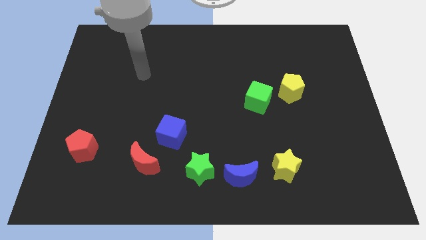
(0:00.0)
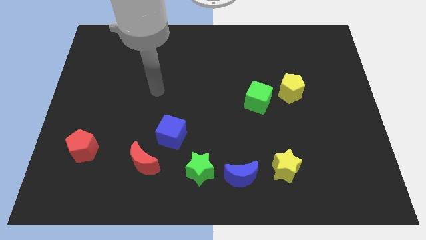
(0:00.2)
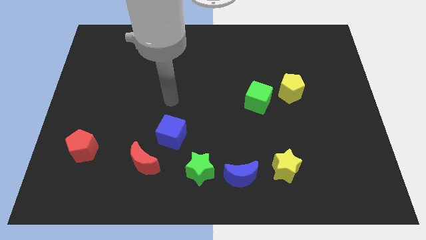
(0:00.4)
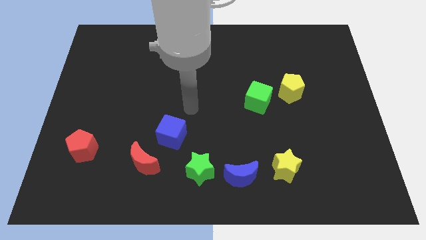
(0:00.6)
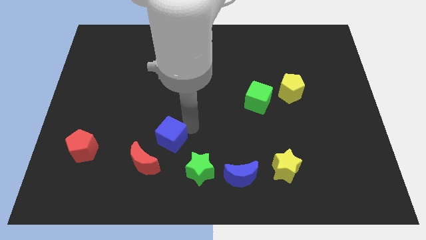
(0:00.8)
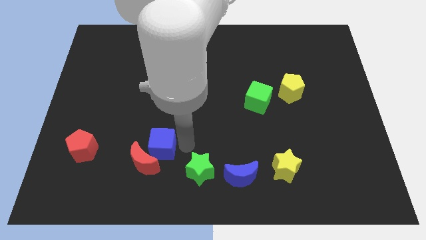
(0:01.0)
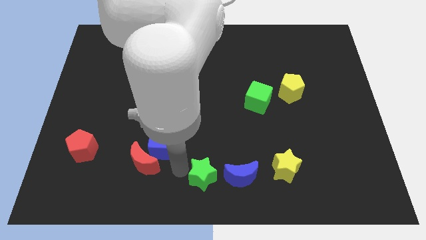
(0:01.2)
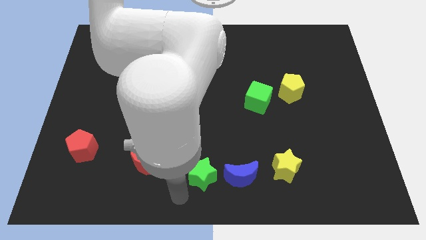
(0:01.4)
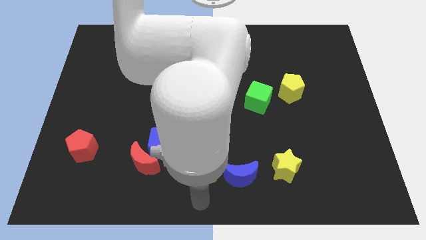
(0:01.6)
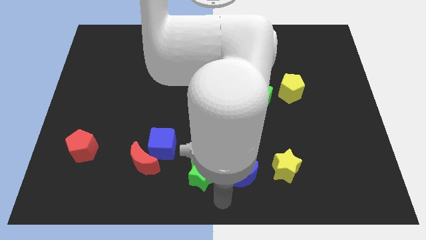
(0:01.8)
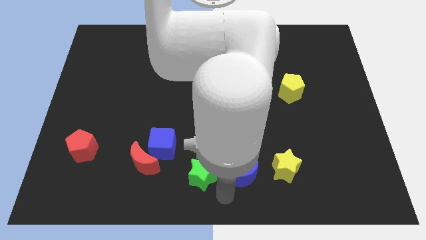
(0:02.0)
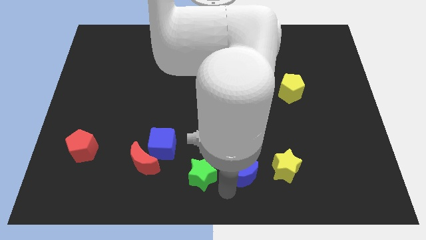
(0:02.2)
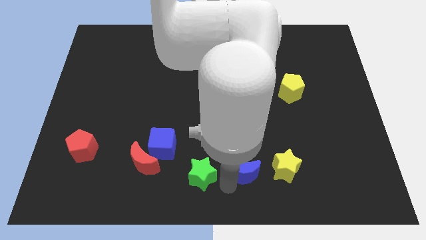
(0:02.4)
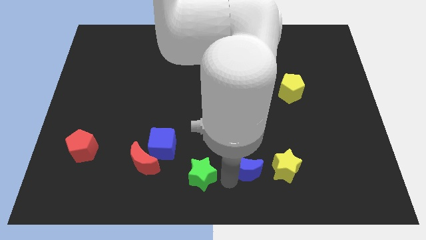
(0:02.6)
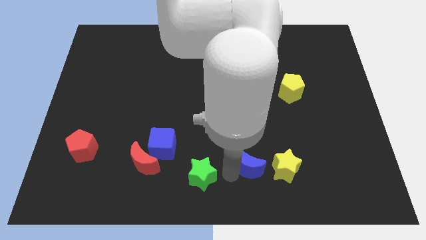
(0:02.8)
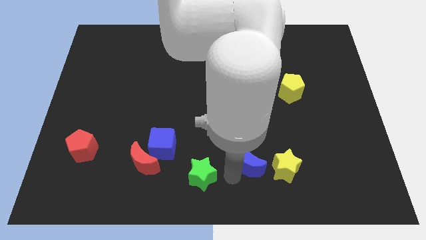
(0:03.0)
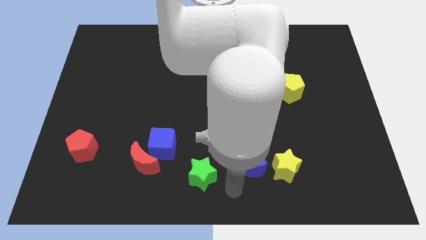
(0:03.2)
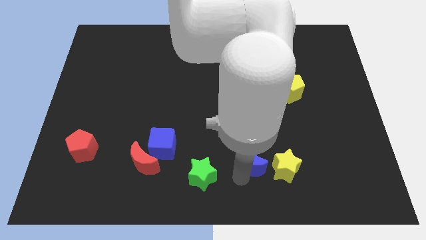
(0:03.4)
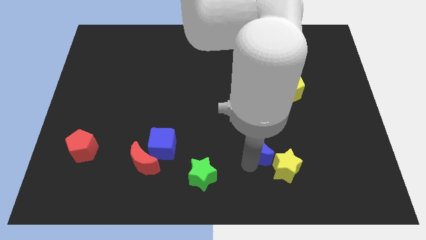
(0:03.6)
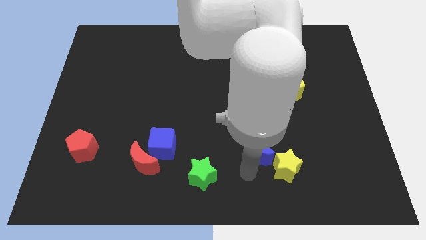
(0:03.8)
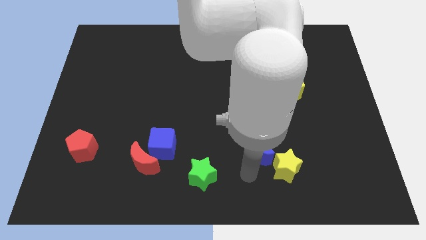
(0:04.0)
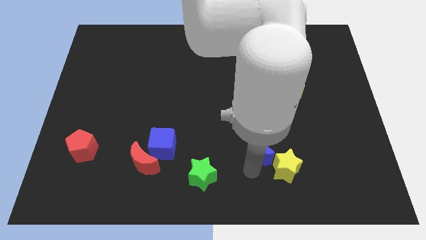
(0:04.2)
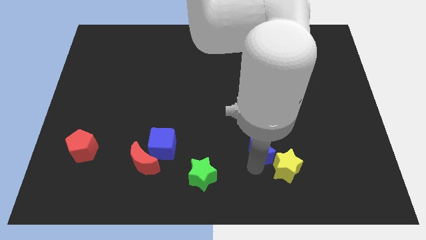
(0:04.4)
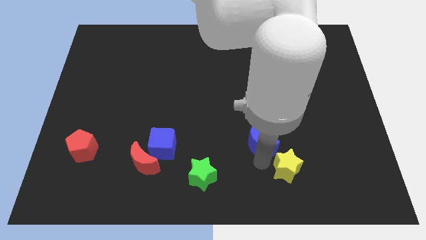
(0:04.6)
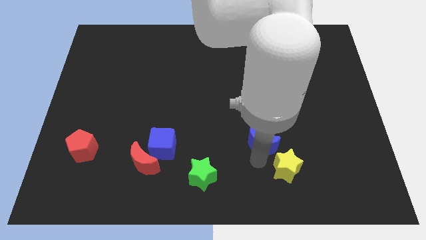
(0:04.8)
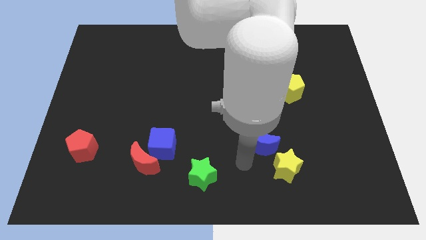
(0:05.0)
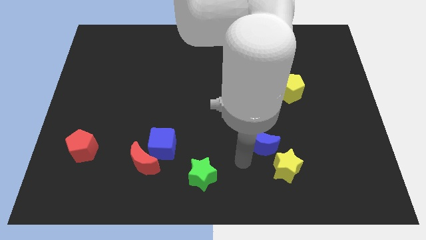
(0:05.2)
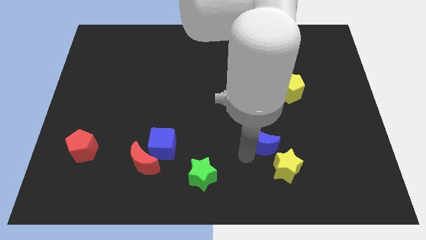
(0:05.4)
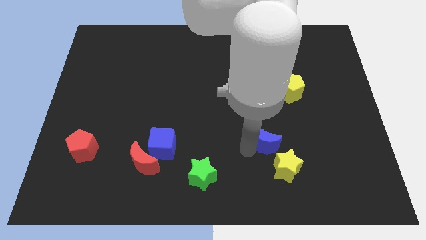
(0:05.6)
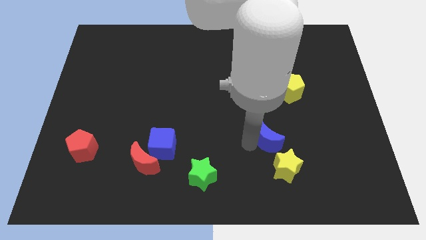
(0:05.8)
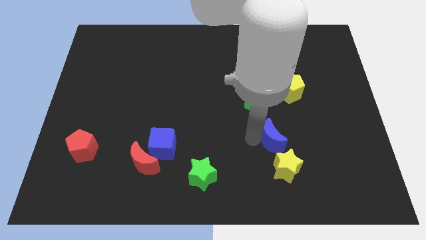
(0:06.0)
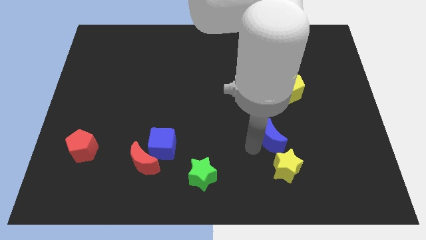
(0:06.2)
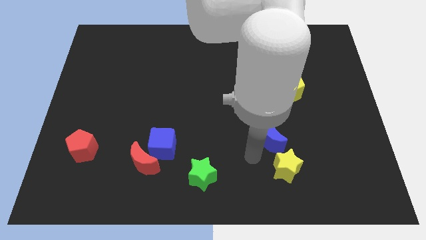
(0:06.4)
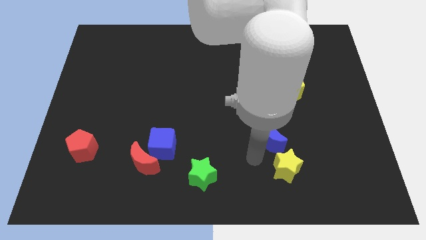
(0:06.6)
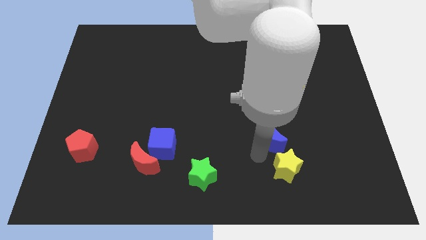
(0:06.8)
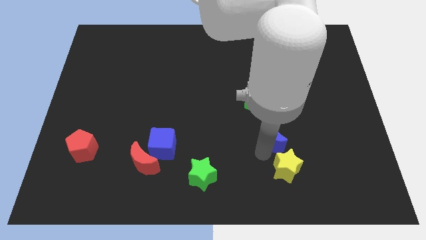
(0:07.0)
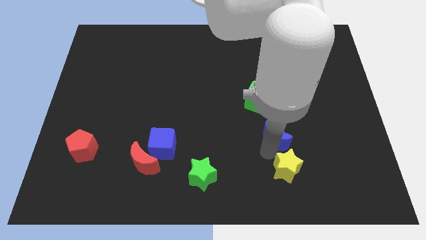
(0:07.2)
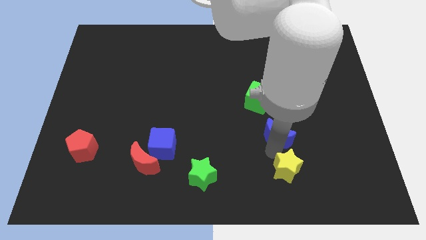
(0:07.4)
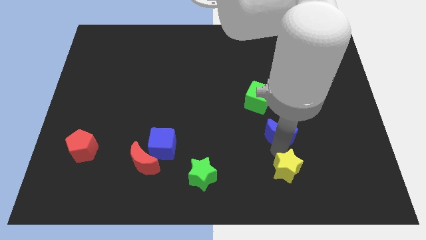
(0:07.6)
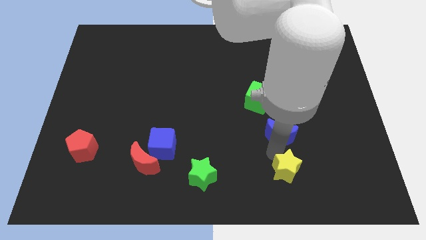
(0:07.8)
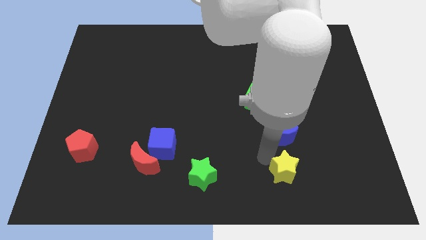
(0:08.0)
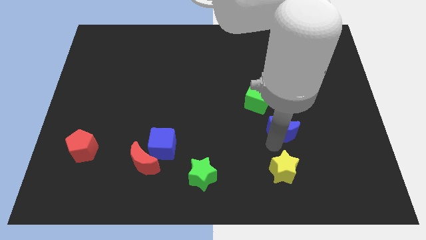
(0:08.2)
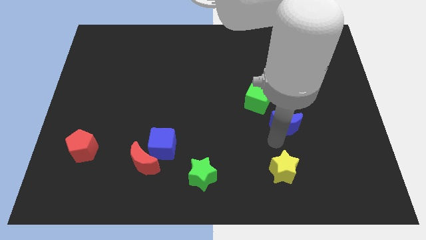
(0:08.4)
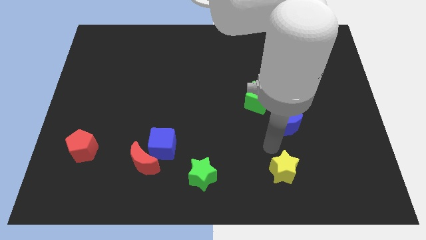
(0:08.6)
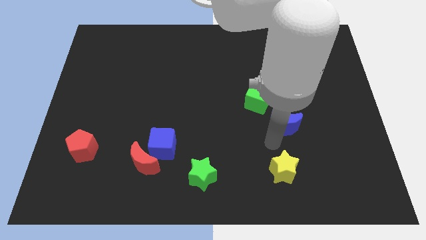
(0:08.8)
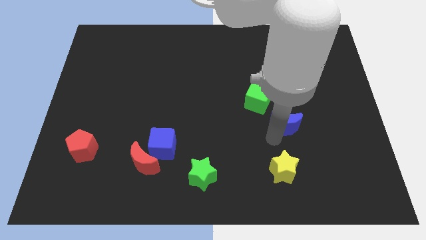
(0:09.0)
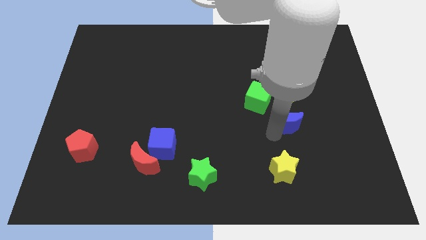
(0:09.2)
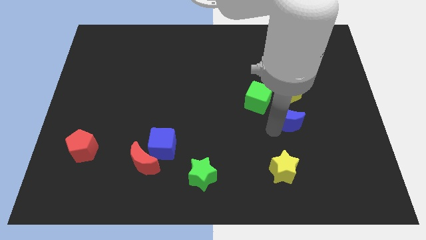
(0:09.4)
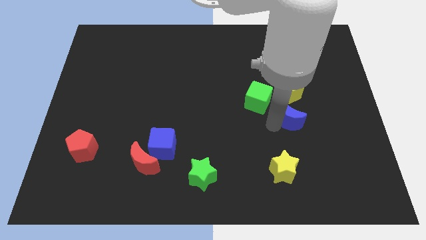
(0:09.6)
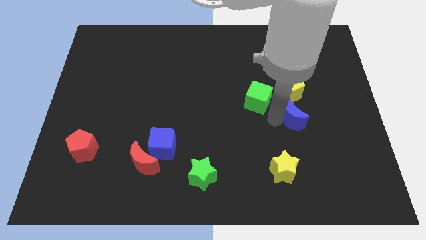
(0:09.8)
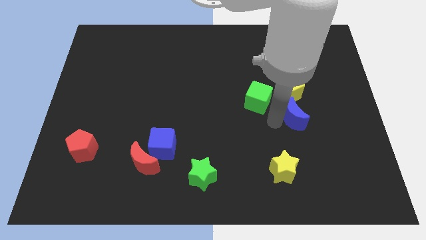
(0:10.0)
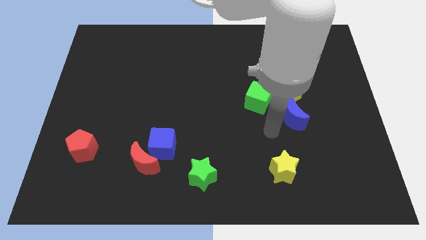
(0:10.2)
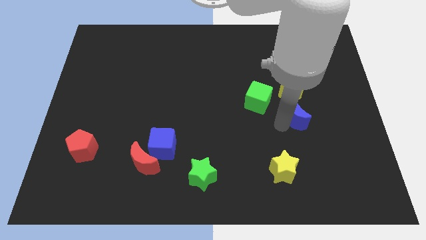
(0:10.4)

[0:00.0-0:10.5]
push the blue moon diagonally upwards and to the right

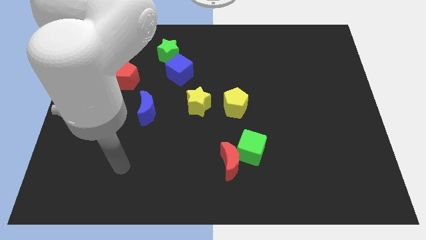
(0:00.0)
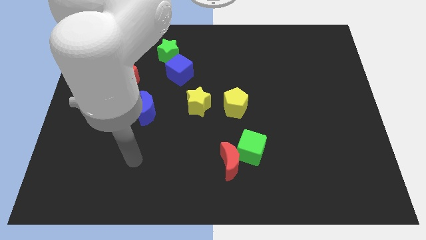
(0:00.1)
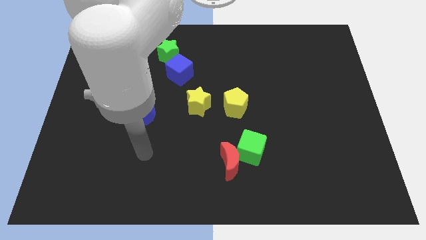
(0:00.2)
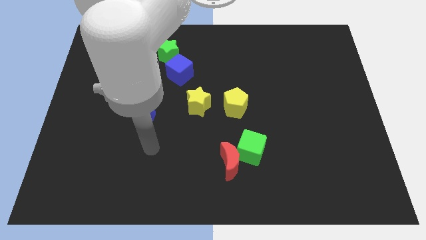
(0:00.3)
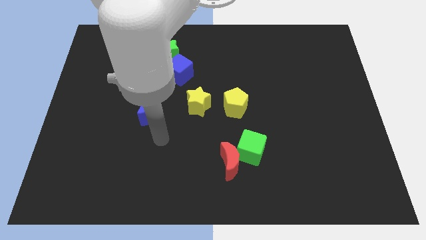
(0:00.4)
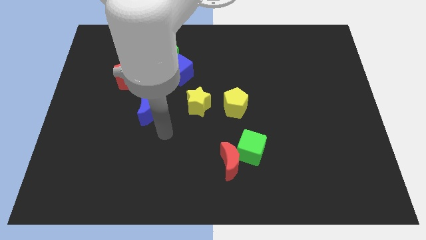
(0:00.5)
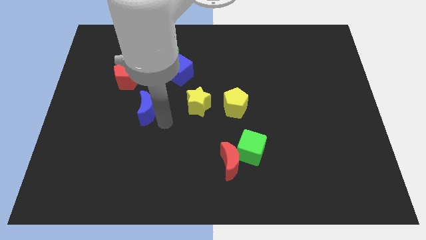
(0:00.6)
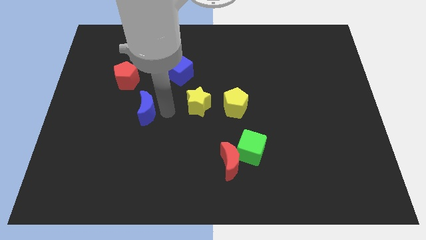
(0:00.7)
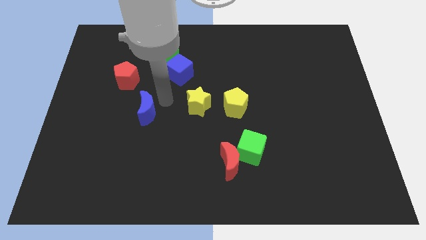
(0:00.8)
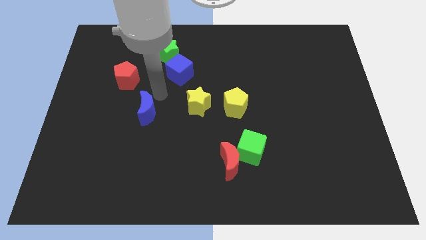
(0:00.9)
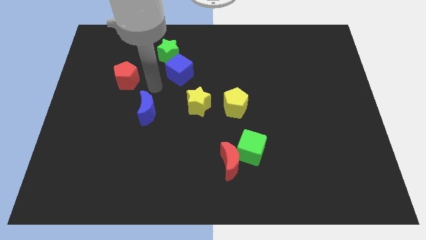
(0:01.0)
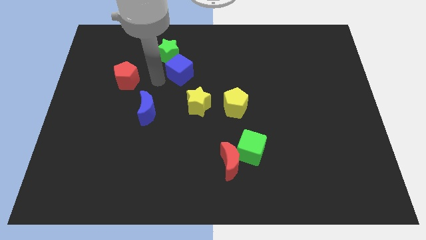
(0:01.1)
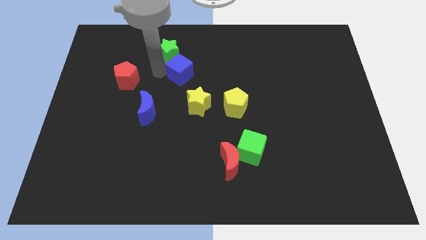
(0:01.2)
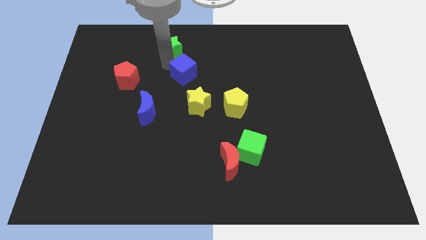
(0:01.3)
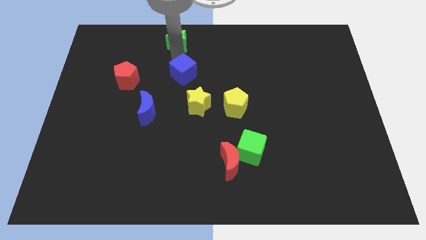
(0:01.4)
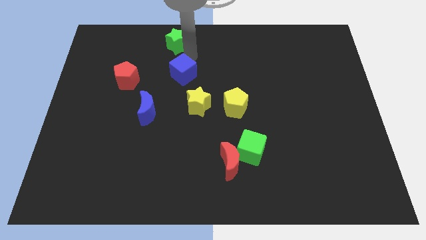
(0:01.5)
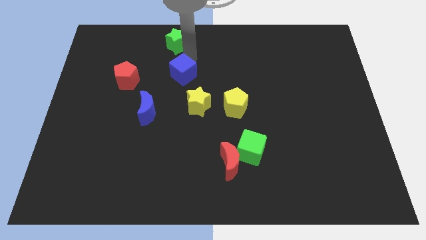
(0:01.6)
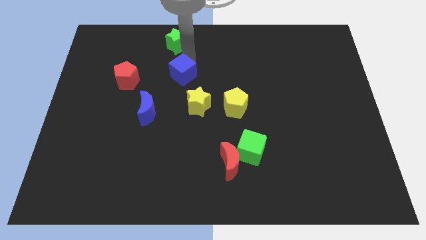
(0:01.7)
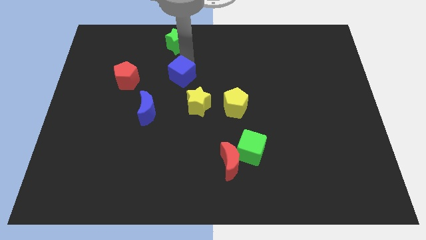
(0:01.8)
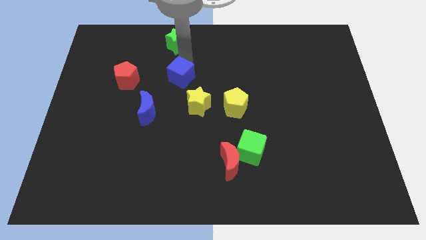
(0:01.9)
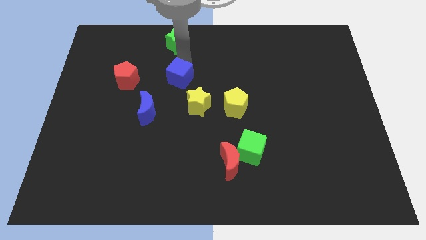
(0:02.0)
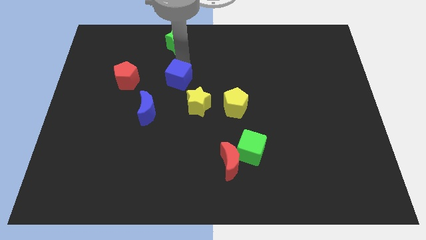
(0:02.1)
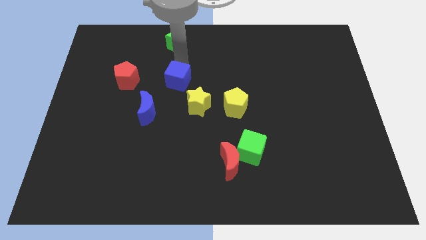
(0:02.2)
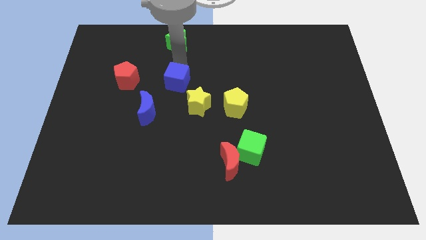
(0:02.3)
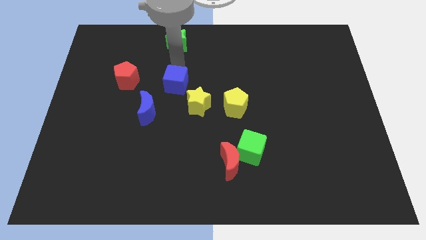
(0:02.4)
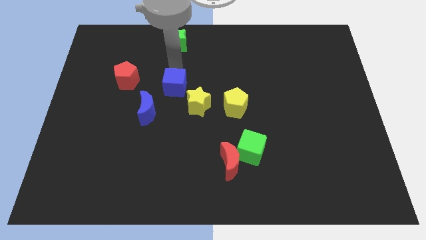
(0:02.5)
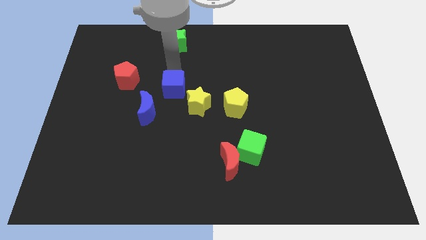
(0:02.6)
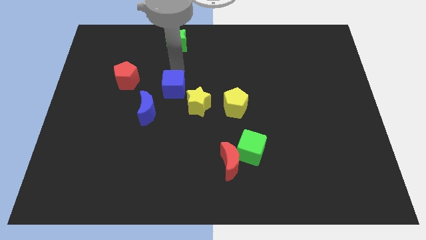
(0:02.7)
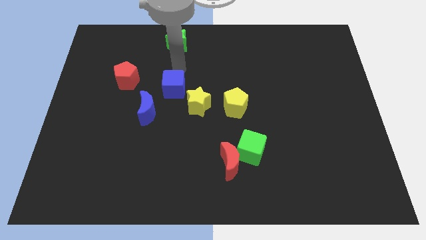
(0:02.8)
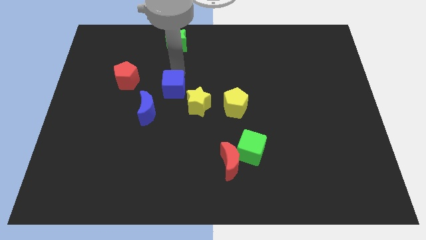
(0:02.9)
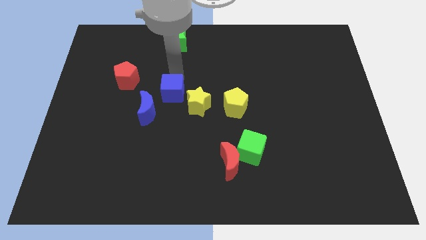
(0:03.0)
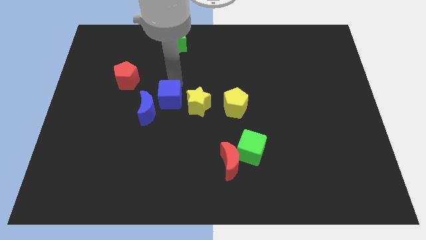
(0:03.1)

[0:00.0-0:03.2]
slide the blue cube downwards a little bit
